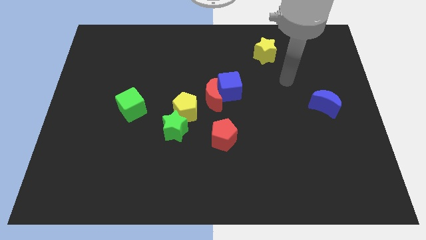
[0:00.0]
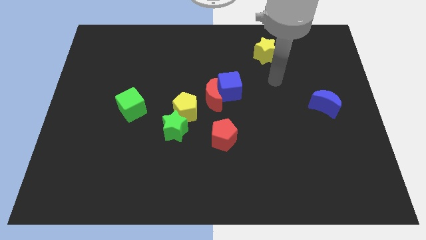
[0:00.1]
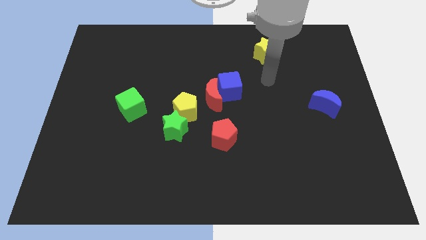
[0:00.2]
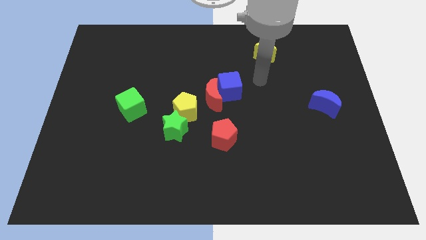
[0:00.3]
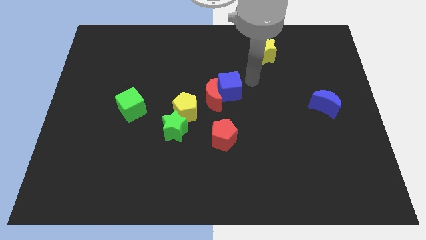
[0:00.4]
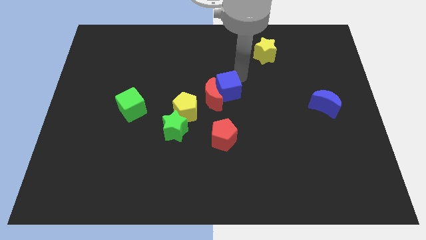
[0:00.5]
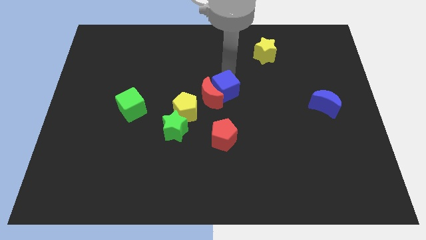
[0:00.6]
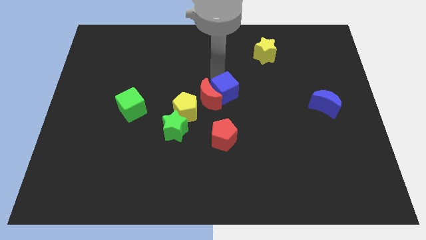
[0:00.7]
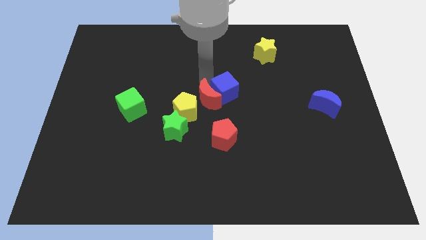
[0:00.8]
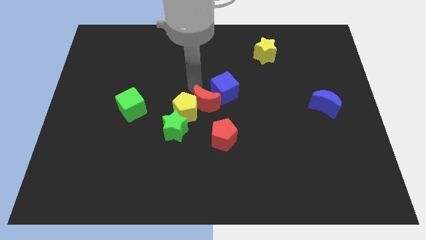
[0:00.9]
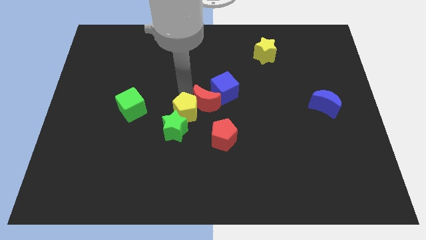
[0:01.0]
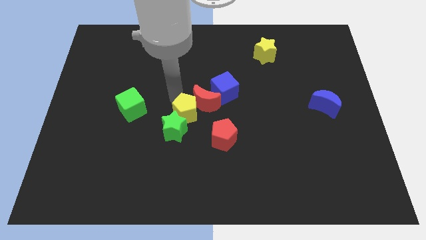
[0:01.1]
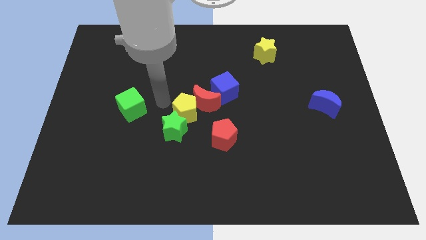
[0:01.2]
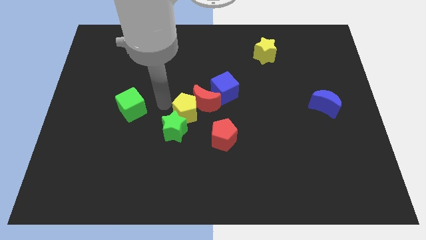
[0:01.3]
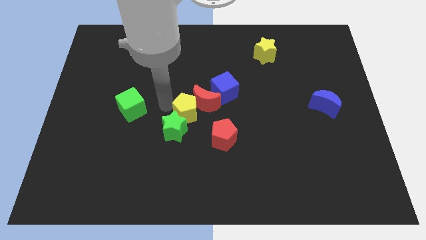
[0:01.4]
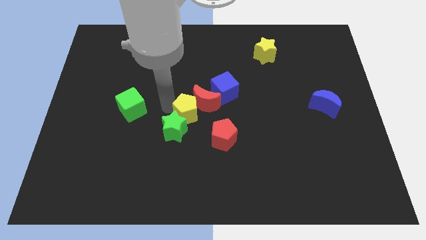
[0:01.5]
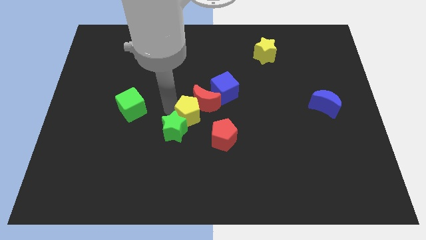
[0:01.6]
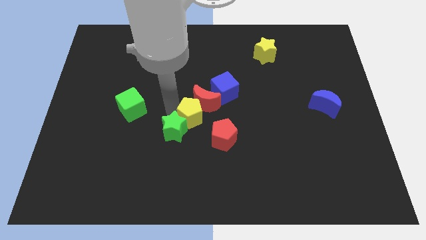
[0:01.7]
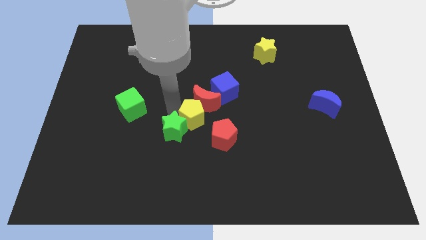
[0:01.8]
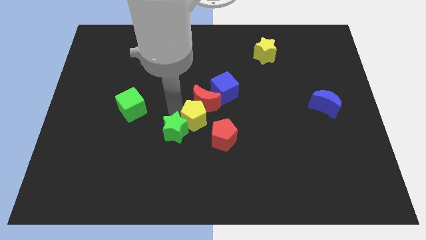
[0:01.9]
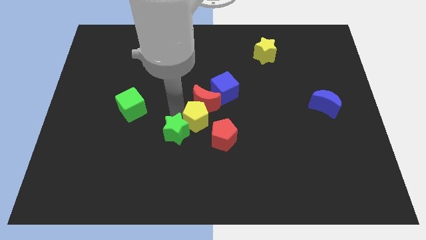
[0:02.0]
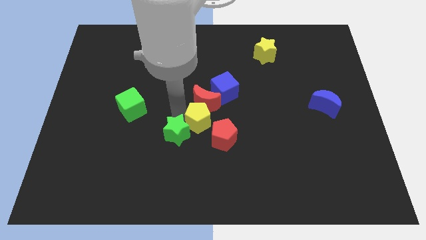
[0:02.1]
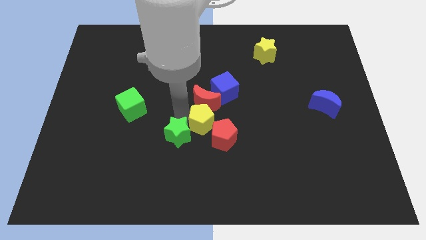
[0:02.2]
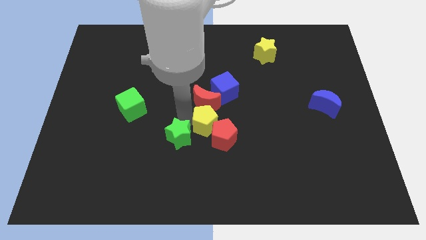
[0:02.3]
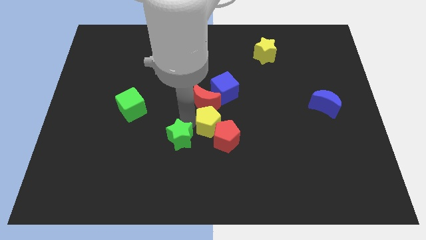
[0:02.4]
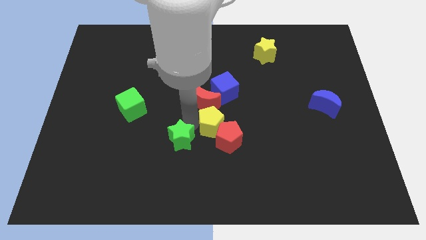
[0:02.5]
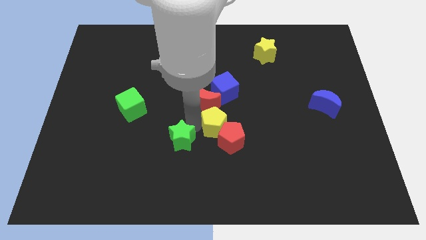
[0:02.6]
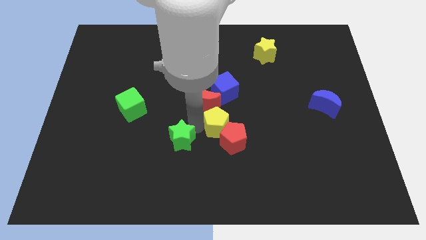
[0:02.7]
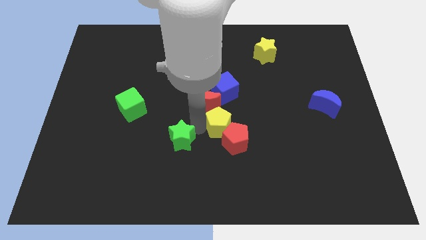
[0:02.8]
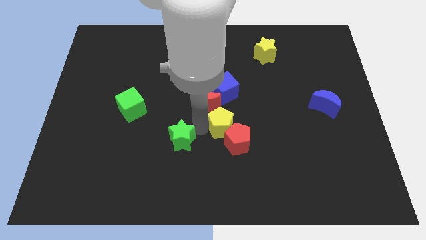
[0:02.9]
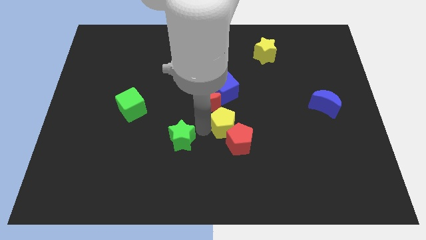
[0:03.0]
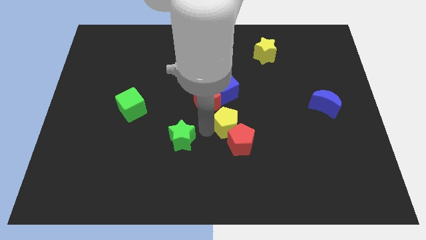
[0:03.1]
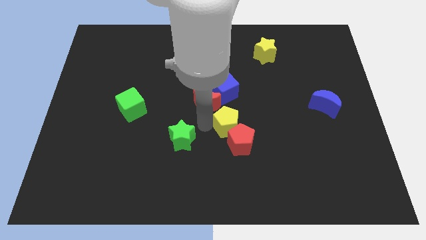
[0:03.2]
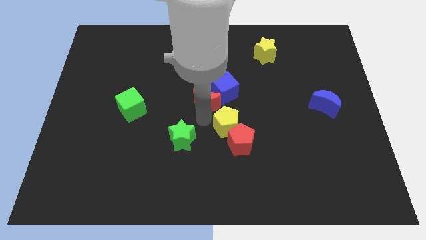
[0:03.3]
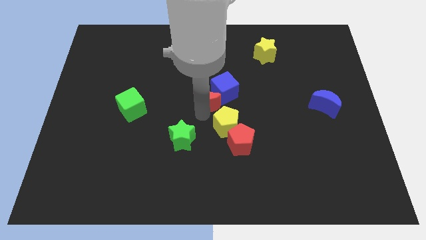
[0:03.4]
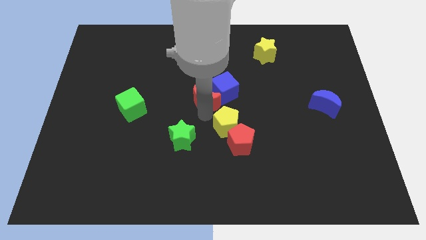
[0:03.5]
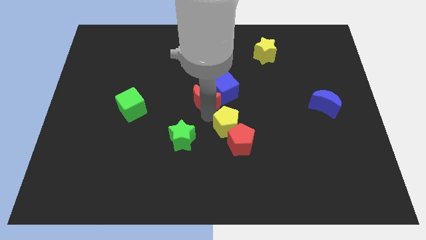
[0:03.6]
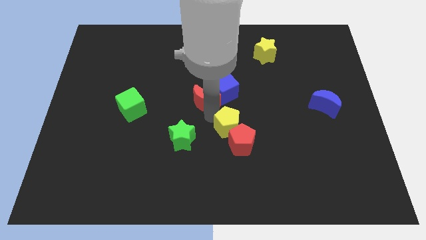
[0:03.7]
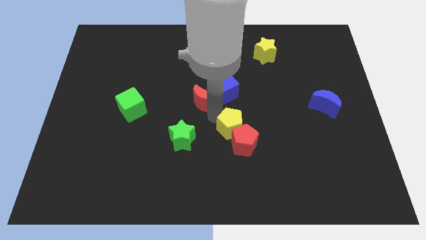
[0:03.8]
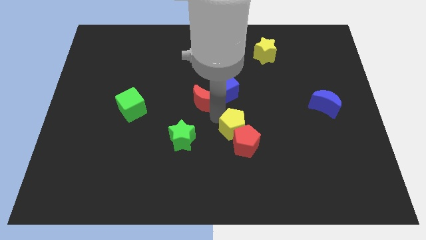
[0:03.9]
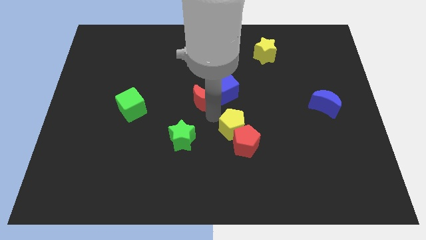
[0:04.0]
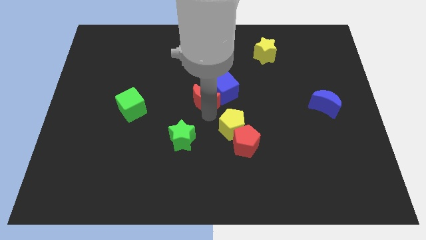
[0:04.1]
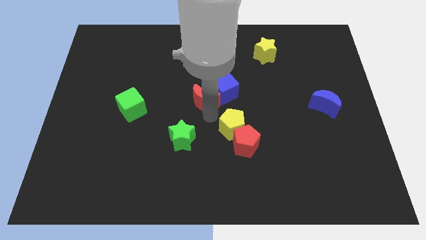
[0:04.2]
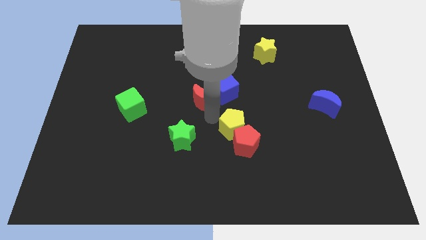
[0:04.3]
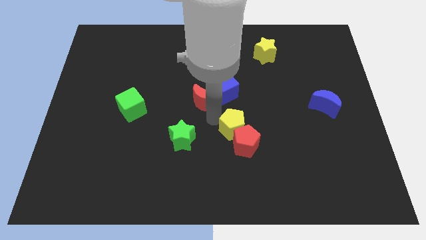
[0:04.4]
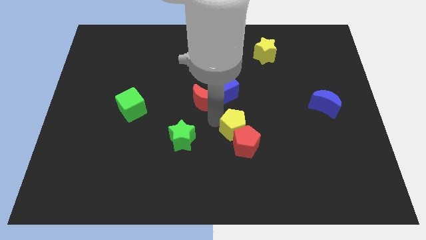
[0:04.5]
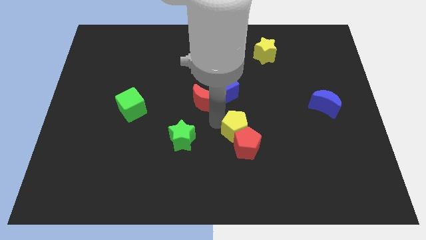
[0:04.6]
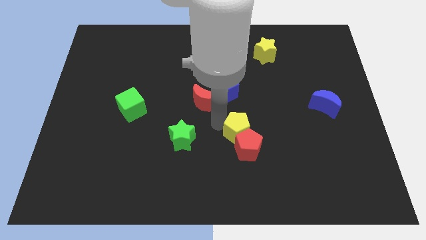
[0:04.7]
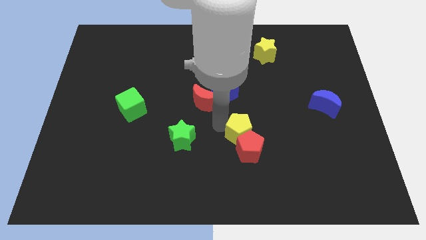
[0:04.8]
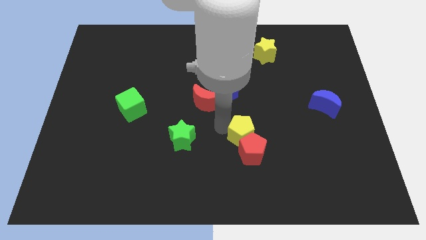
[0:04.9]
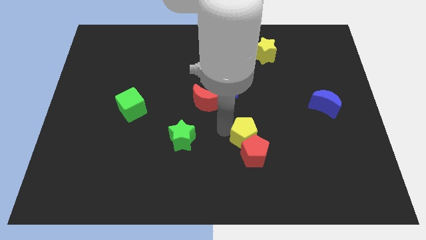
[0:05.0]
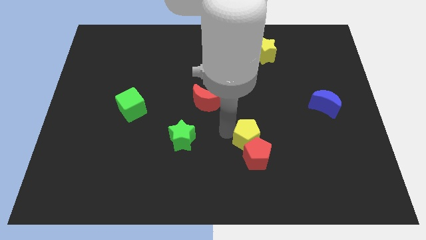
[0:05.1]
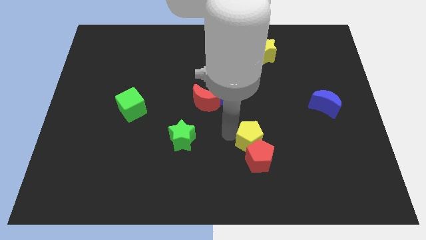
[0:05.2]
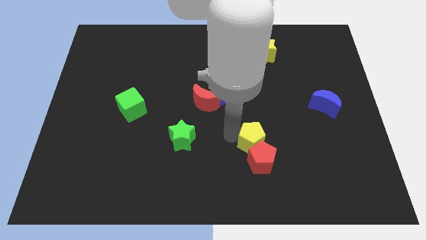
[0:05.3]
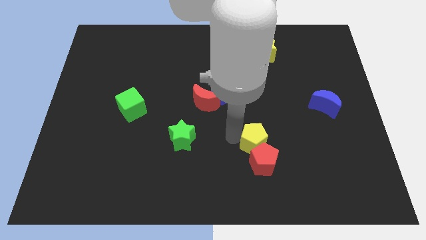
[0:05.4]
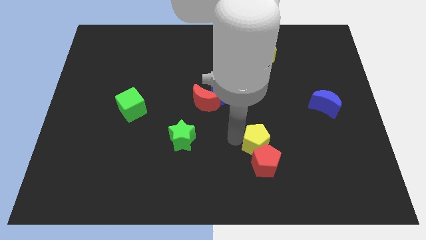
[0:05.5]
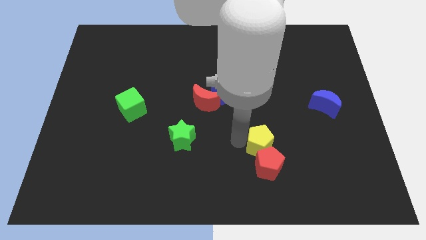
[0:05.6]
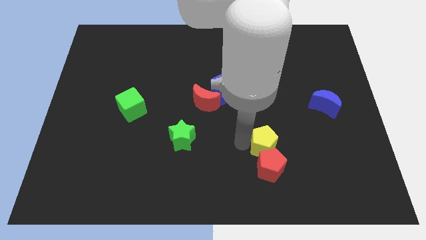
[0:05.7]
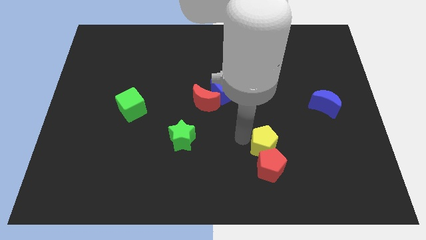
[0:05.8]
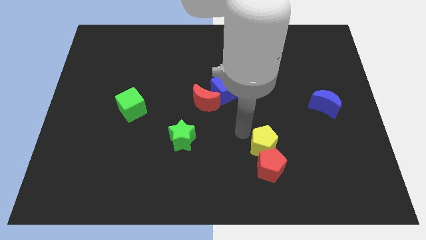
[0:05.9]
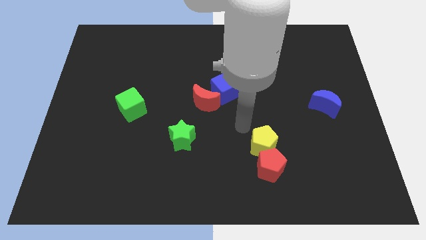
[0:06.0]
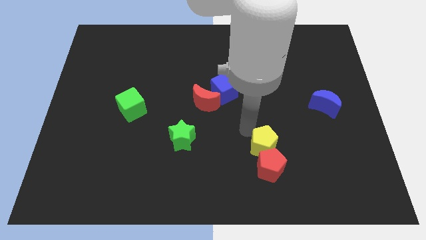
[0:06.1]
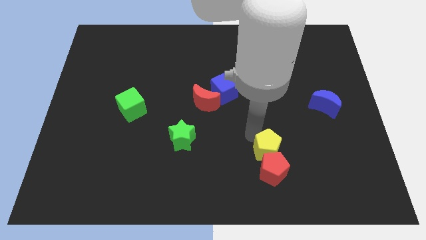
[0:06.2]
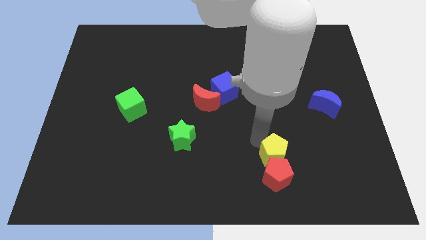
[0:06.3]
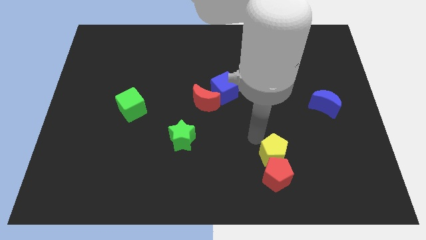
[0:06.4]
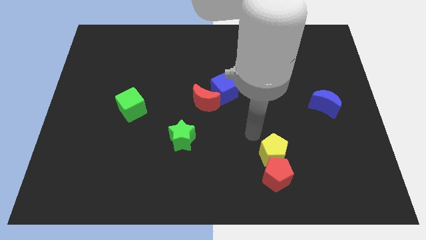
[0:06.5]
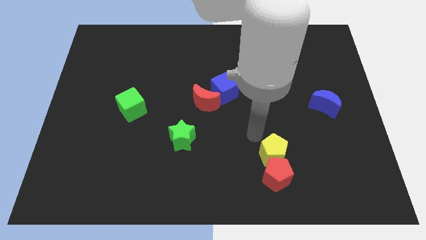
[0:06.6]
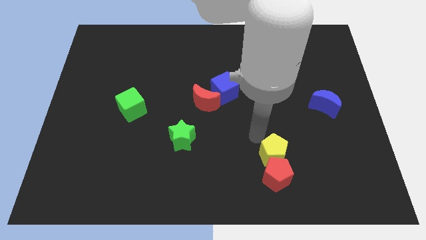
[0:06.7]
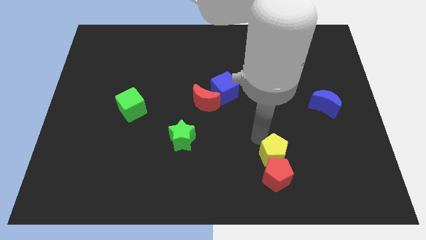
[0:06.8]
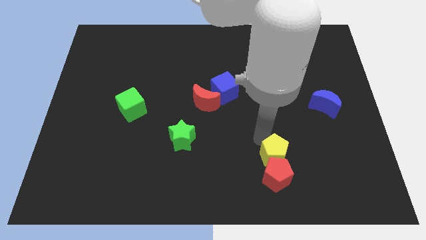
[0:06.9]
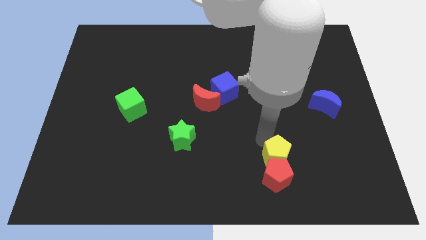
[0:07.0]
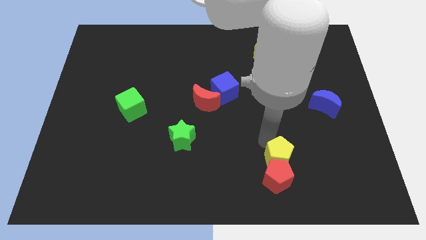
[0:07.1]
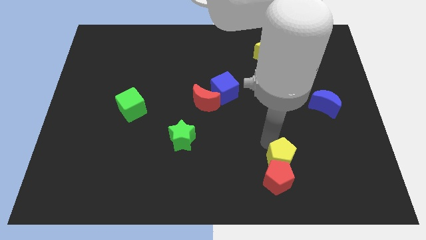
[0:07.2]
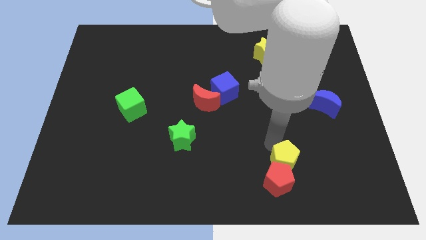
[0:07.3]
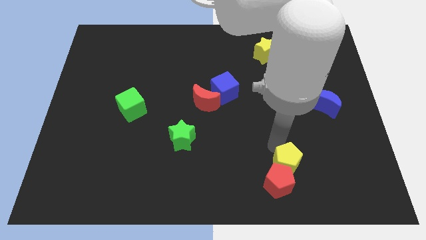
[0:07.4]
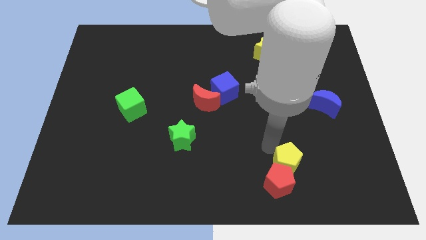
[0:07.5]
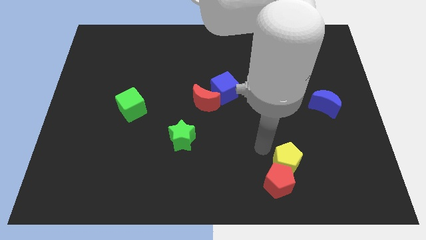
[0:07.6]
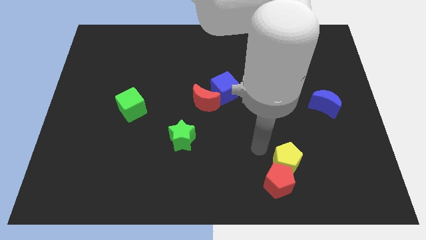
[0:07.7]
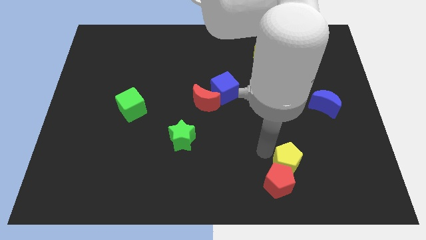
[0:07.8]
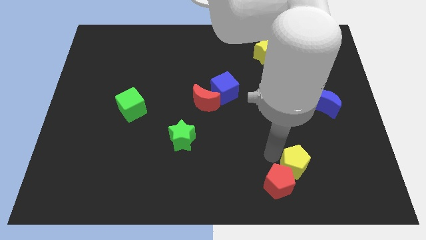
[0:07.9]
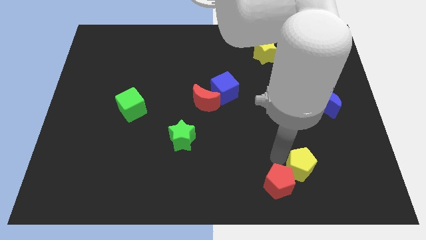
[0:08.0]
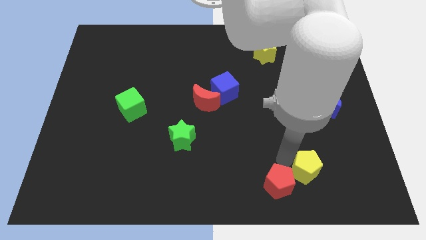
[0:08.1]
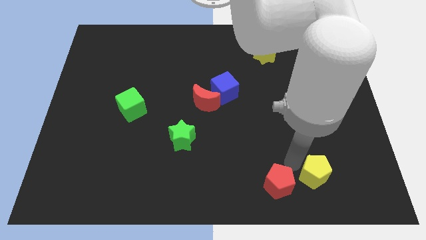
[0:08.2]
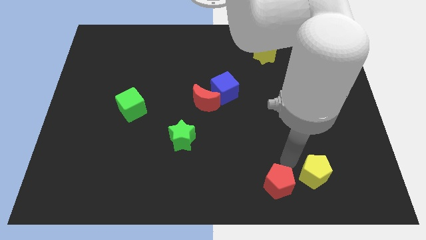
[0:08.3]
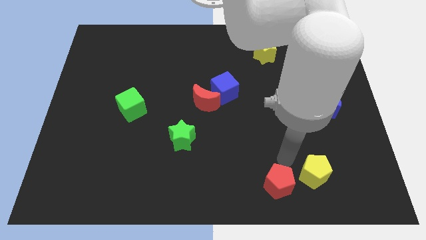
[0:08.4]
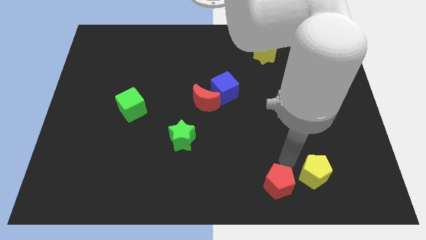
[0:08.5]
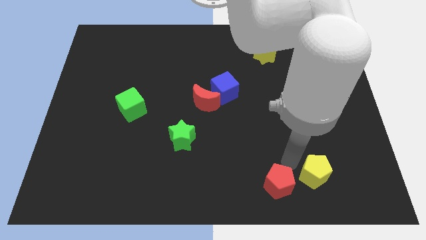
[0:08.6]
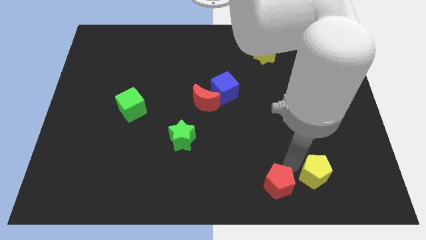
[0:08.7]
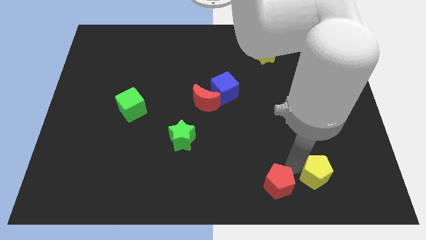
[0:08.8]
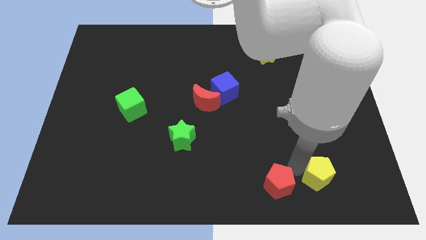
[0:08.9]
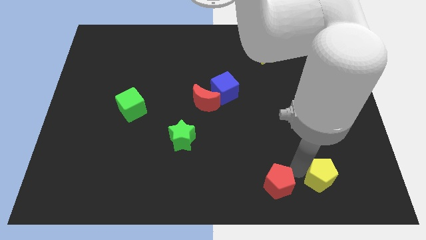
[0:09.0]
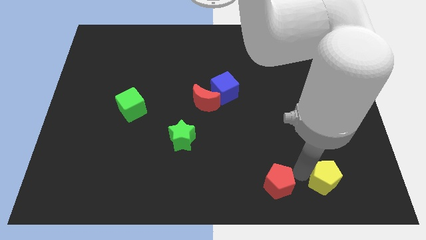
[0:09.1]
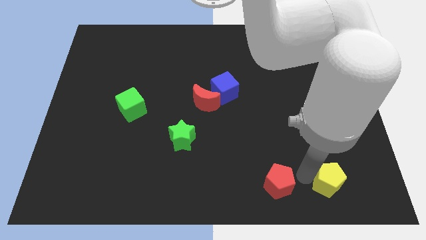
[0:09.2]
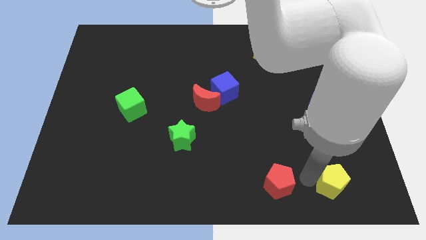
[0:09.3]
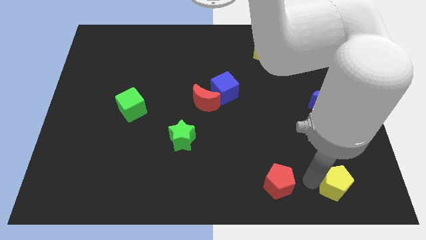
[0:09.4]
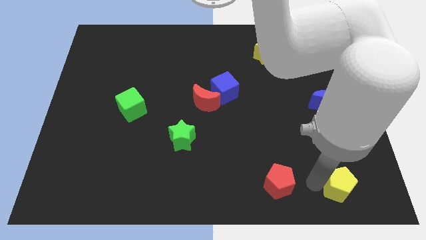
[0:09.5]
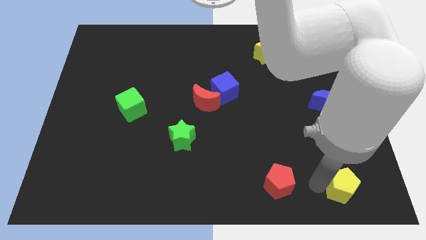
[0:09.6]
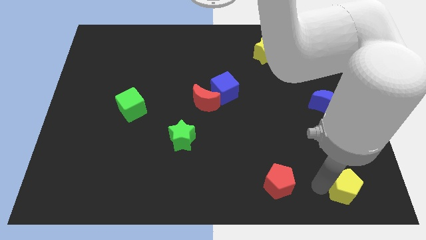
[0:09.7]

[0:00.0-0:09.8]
slide the yellow pentagon to the bottom right corner
